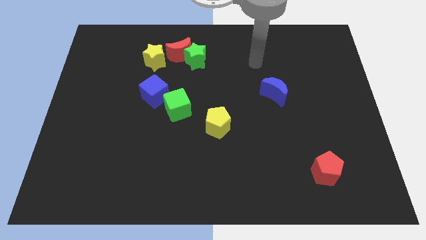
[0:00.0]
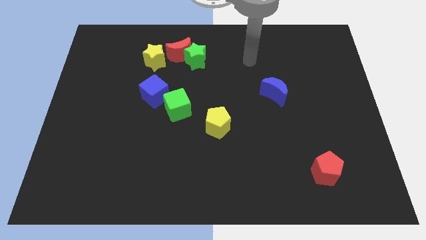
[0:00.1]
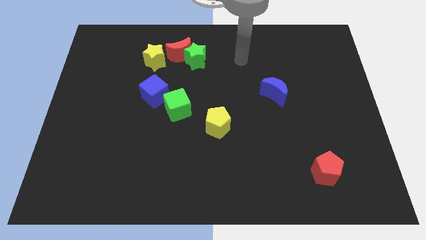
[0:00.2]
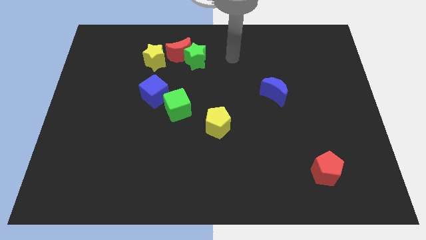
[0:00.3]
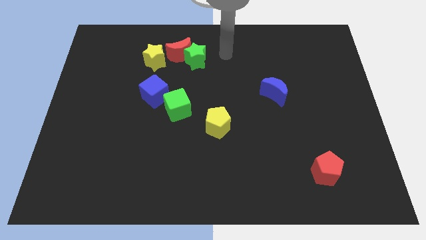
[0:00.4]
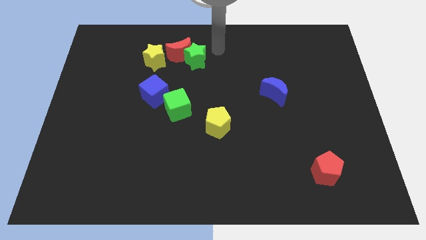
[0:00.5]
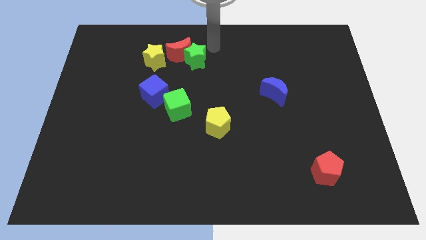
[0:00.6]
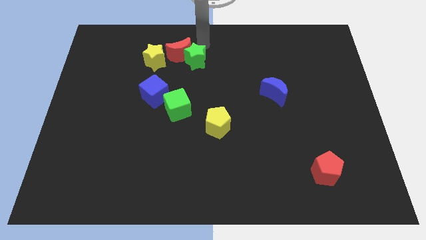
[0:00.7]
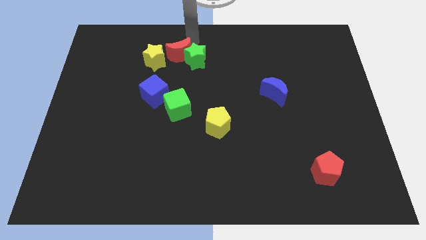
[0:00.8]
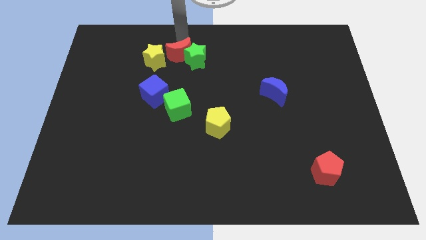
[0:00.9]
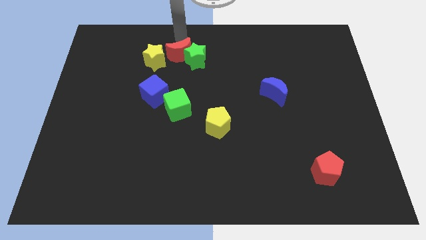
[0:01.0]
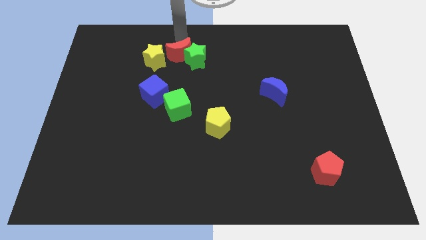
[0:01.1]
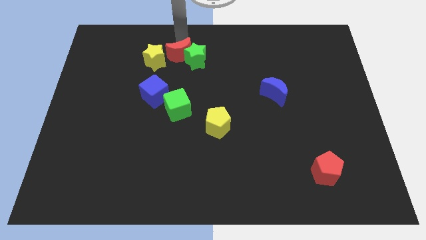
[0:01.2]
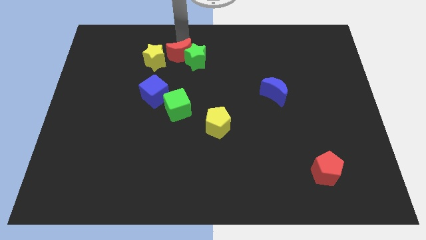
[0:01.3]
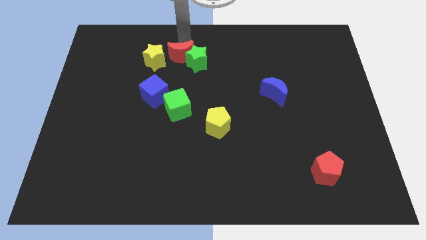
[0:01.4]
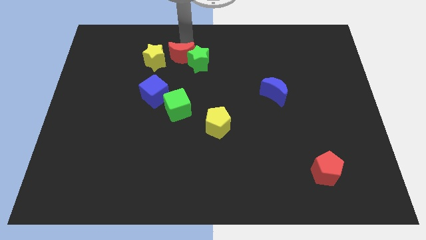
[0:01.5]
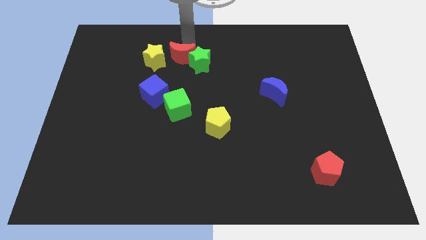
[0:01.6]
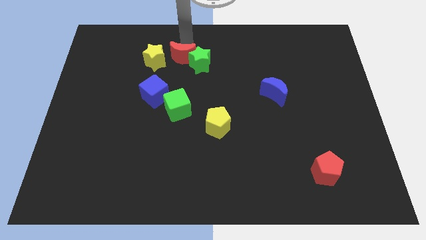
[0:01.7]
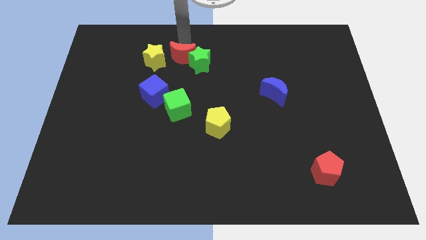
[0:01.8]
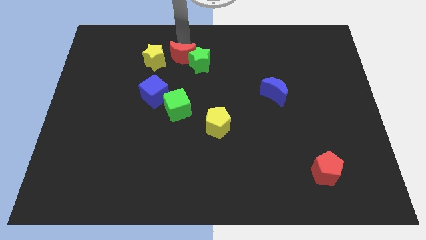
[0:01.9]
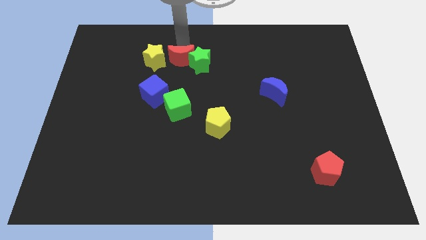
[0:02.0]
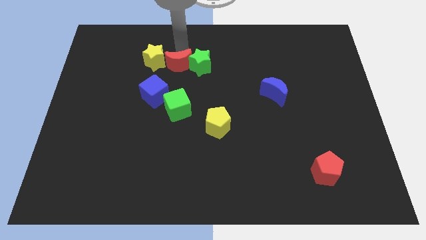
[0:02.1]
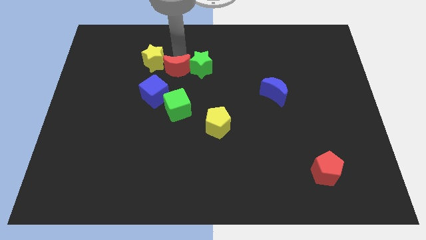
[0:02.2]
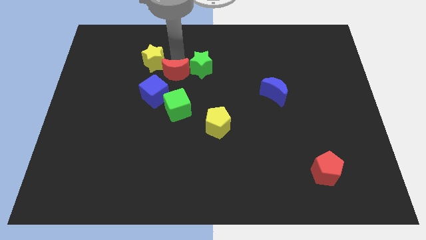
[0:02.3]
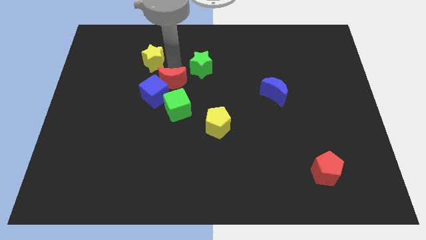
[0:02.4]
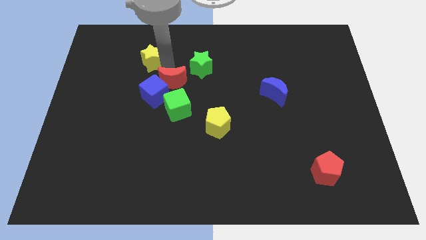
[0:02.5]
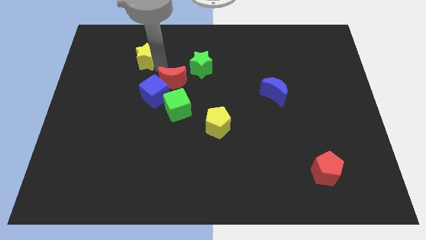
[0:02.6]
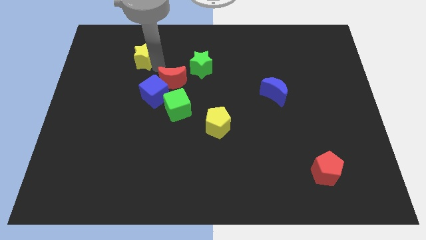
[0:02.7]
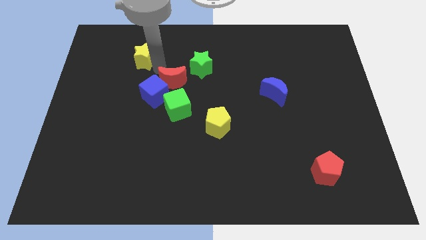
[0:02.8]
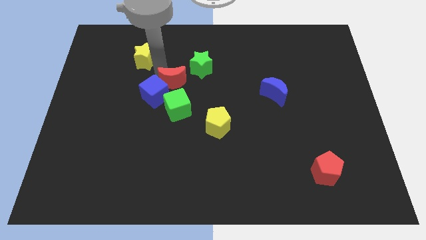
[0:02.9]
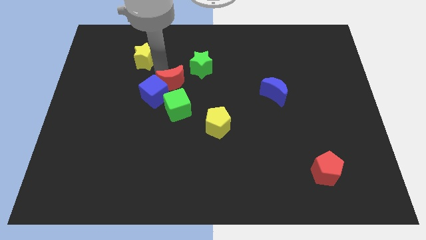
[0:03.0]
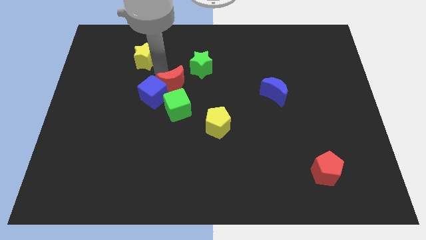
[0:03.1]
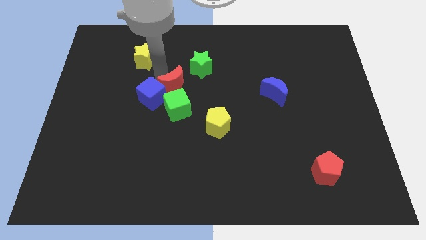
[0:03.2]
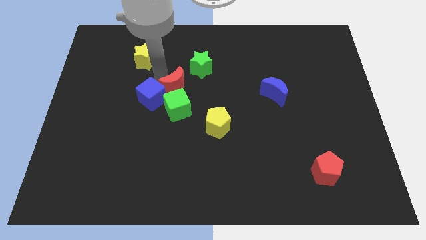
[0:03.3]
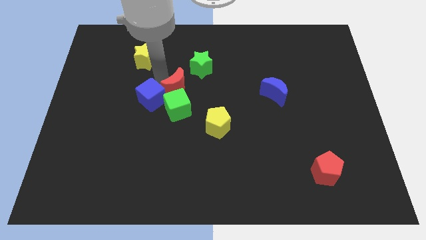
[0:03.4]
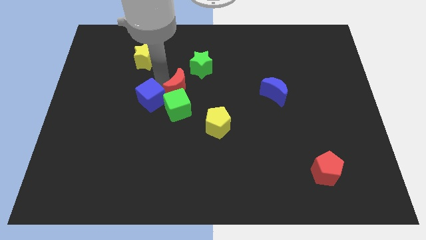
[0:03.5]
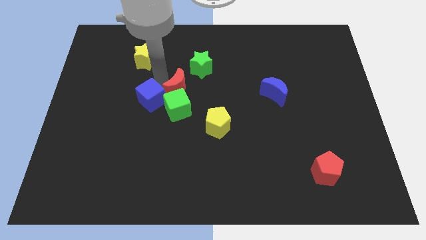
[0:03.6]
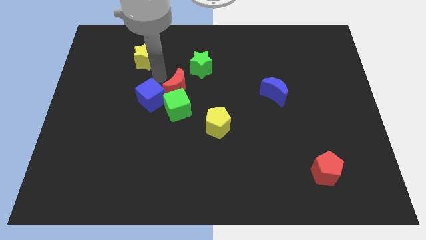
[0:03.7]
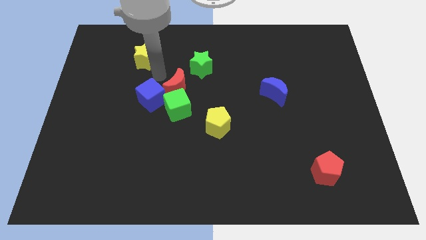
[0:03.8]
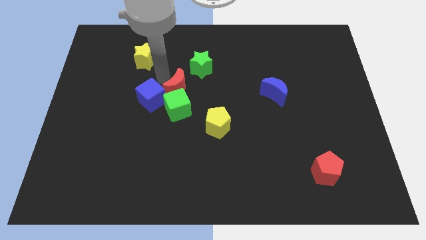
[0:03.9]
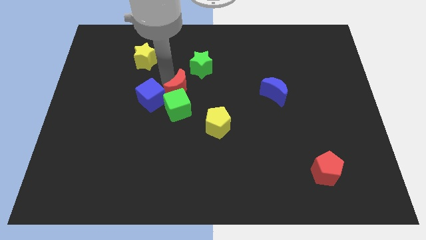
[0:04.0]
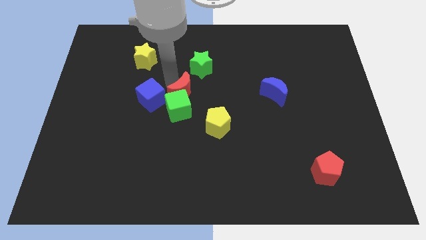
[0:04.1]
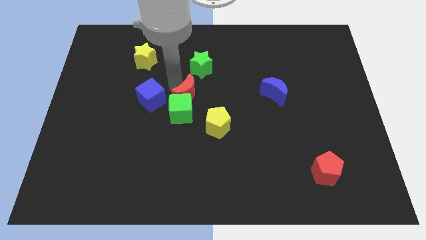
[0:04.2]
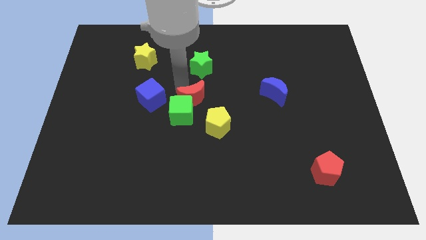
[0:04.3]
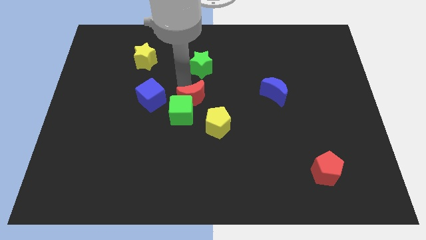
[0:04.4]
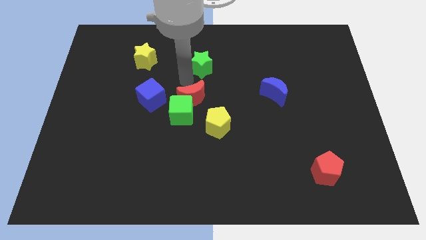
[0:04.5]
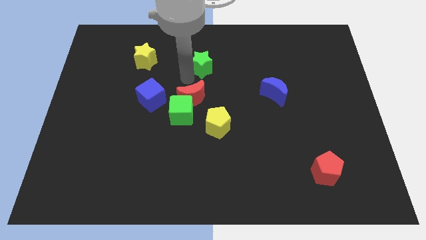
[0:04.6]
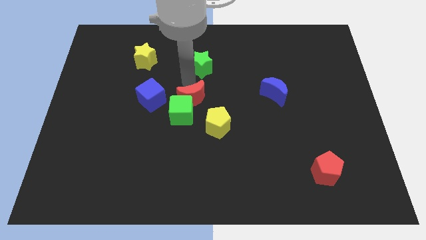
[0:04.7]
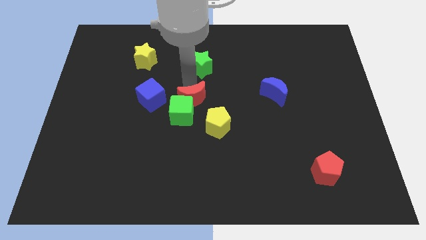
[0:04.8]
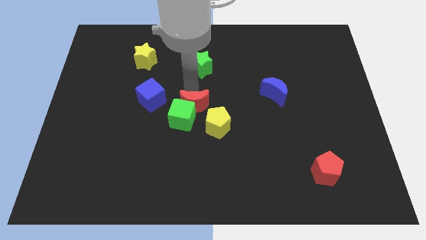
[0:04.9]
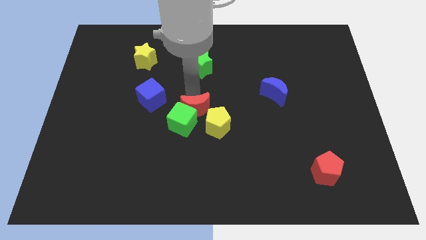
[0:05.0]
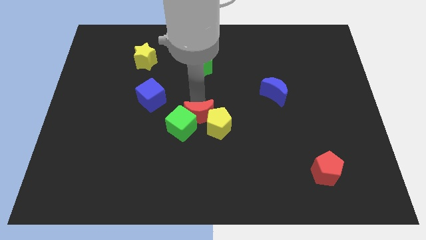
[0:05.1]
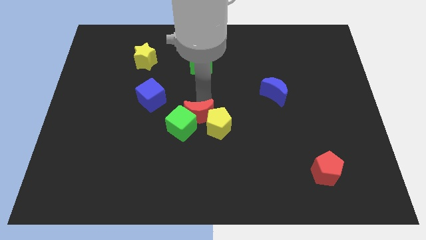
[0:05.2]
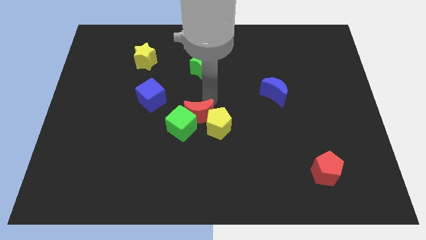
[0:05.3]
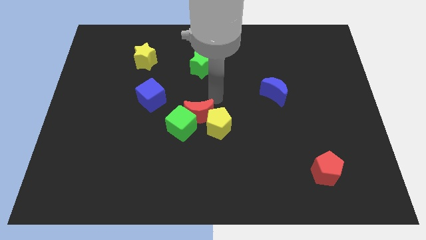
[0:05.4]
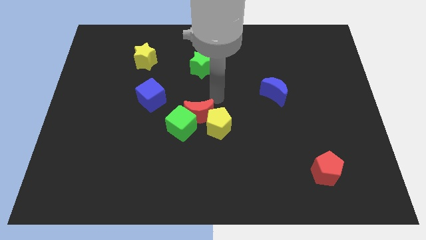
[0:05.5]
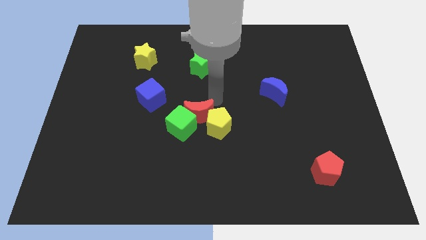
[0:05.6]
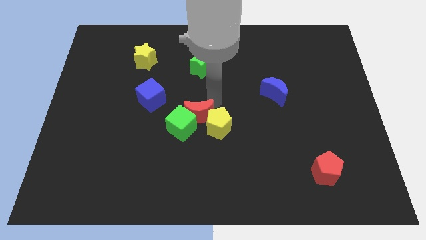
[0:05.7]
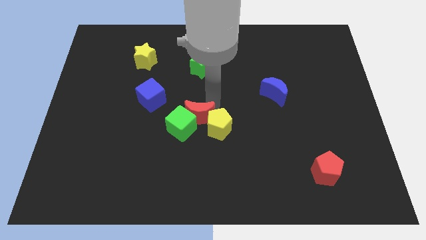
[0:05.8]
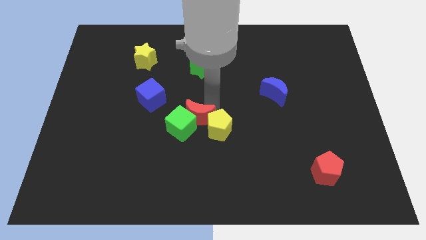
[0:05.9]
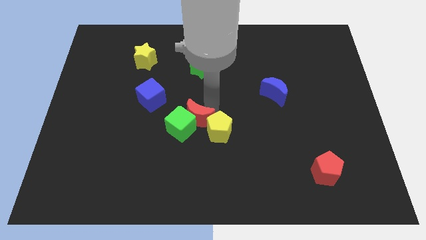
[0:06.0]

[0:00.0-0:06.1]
move the red moon downwards

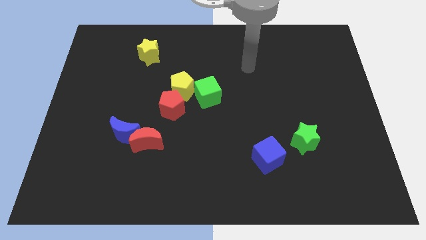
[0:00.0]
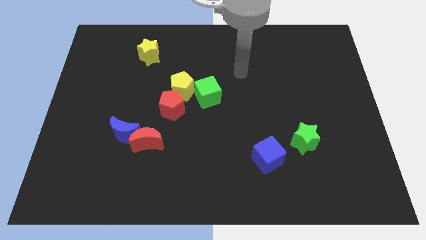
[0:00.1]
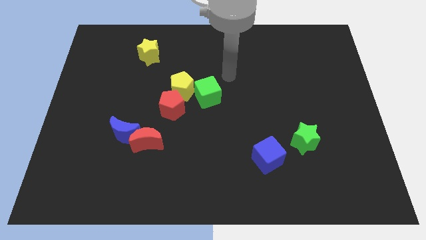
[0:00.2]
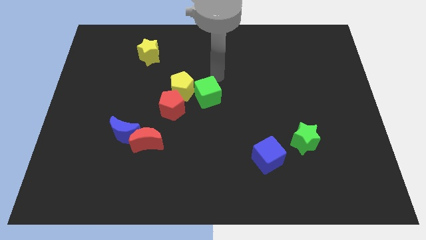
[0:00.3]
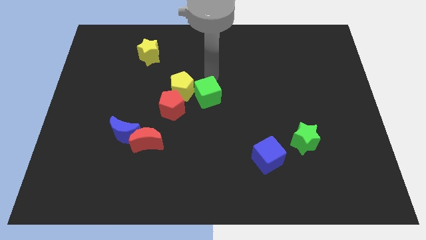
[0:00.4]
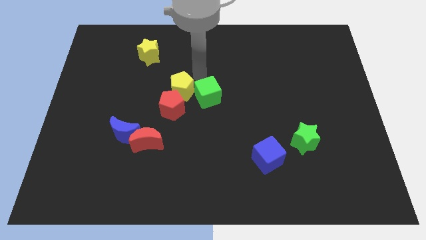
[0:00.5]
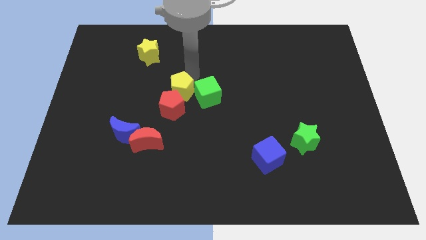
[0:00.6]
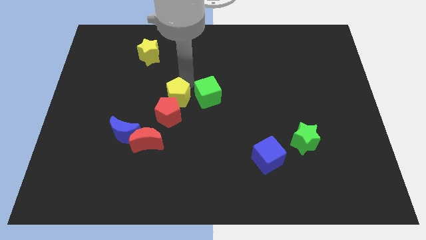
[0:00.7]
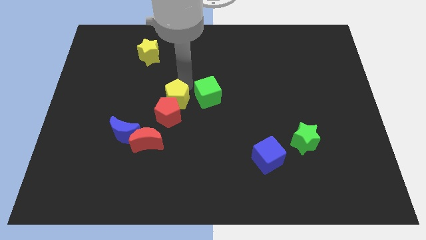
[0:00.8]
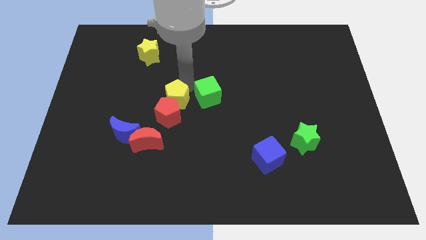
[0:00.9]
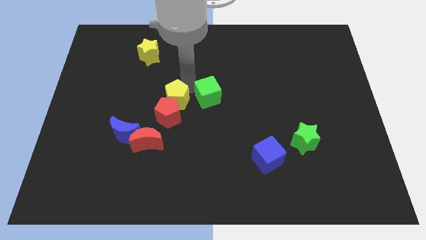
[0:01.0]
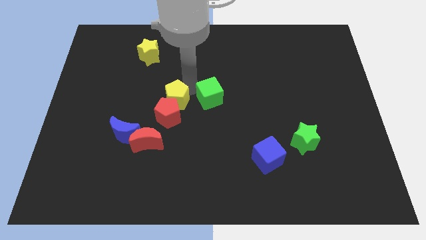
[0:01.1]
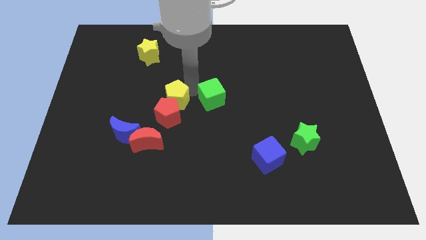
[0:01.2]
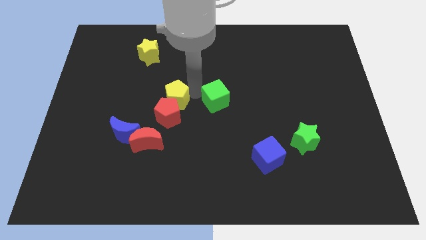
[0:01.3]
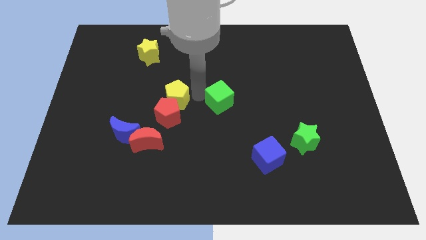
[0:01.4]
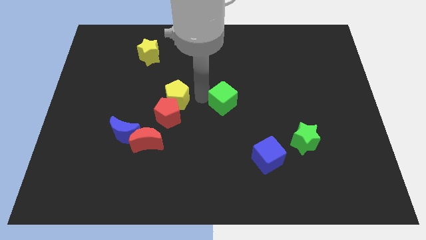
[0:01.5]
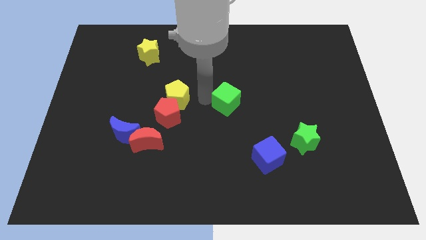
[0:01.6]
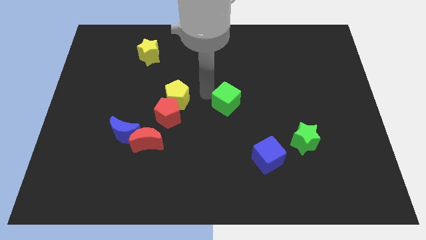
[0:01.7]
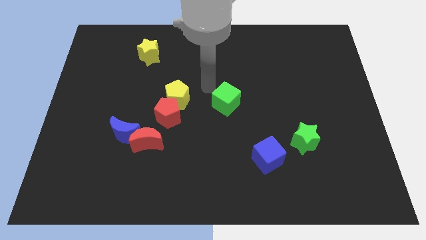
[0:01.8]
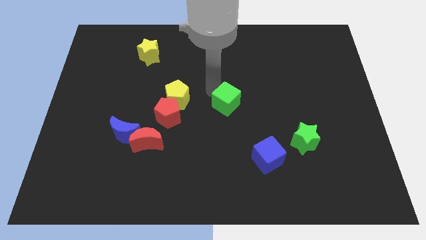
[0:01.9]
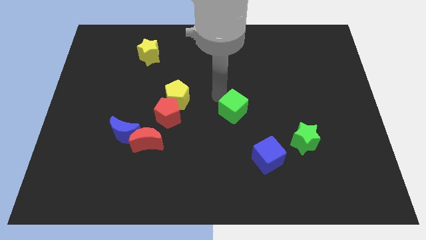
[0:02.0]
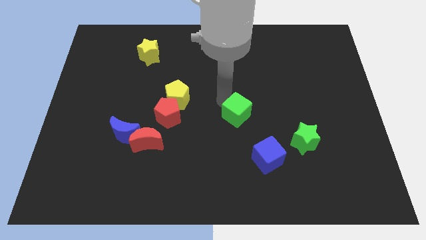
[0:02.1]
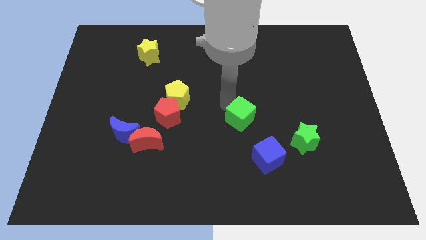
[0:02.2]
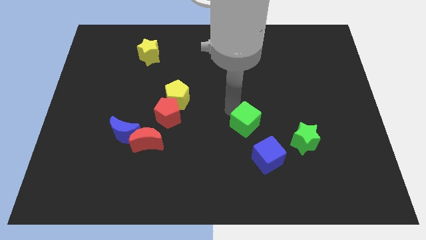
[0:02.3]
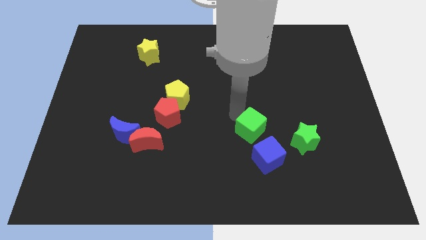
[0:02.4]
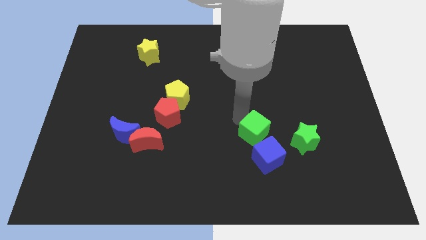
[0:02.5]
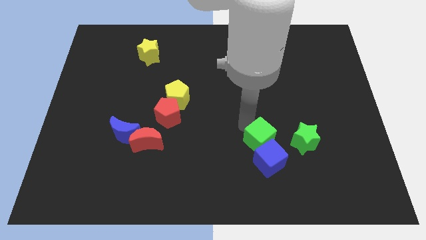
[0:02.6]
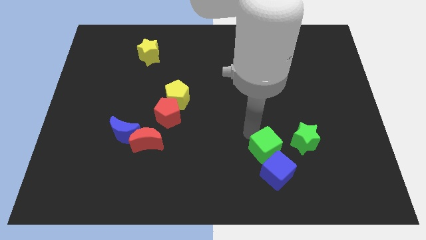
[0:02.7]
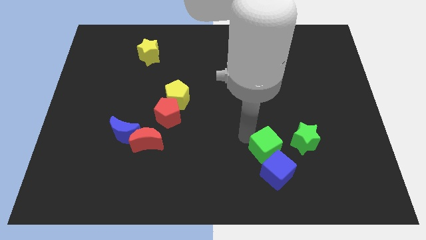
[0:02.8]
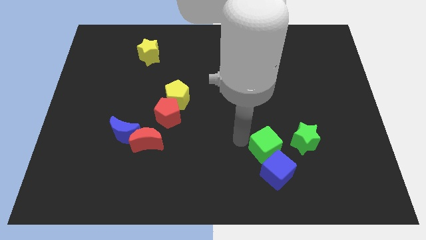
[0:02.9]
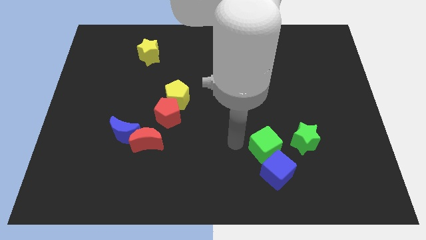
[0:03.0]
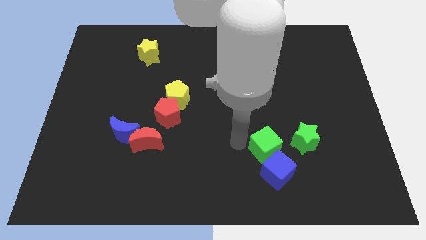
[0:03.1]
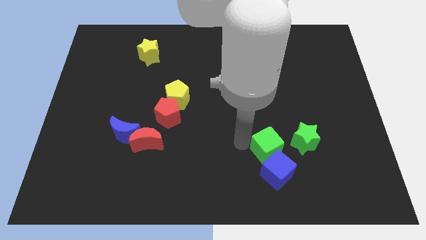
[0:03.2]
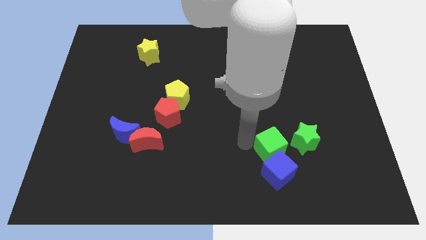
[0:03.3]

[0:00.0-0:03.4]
slide the green cube diagonally down and right
